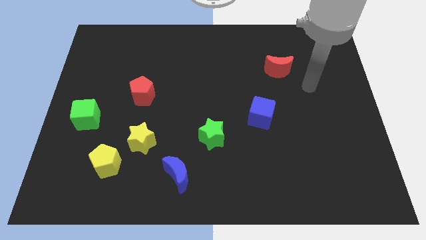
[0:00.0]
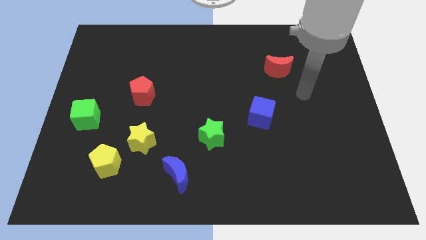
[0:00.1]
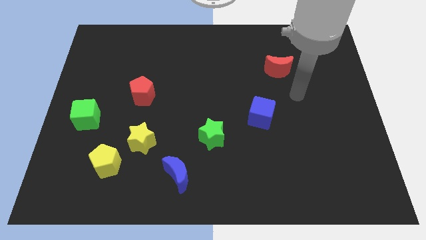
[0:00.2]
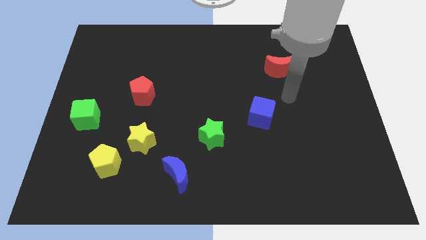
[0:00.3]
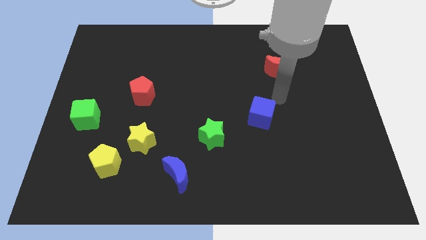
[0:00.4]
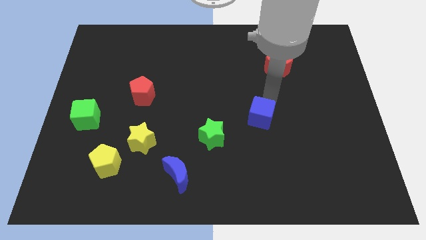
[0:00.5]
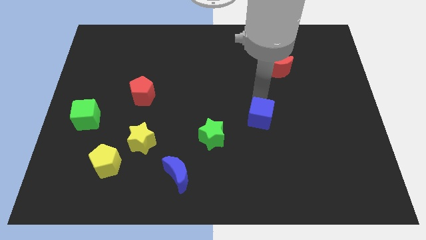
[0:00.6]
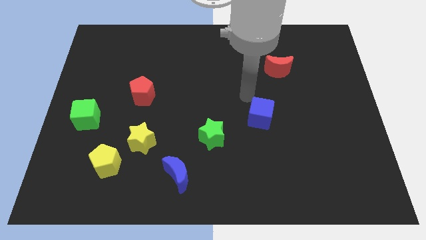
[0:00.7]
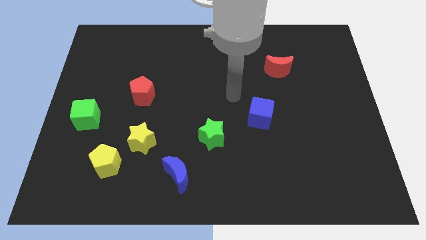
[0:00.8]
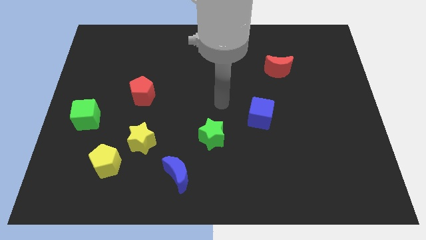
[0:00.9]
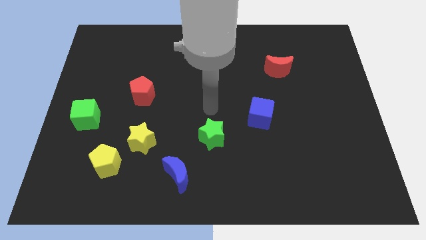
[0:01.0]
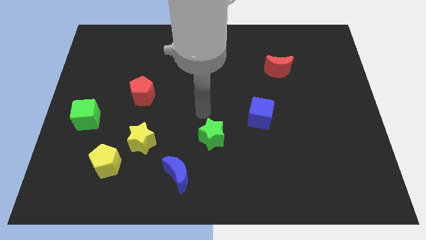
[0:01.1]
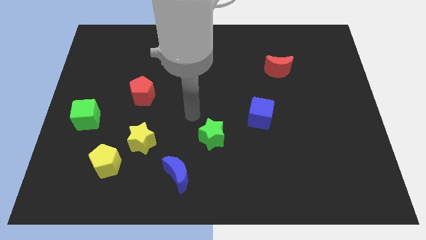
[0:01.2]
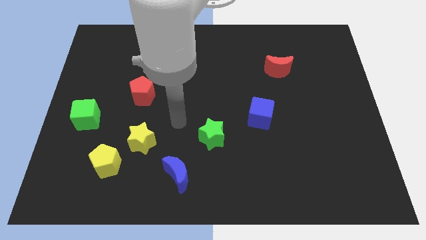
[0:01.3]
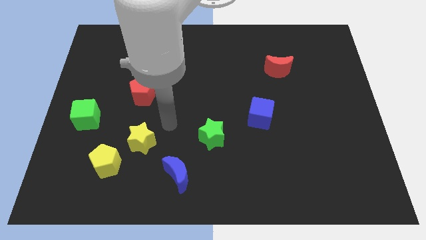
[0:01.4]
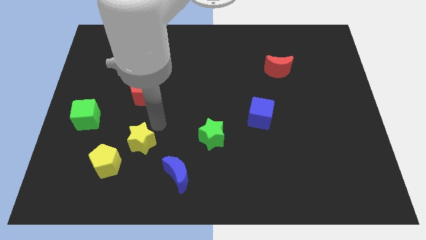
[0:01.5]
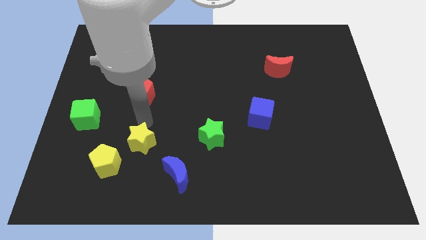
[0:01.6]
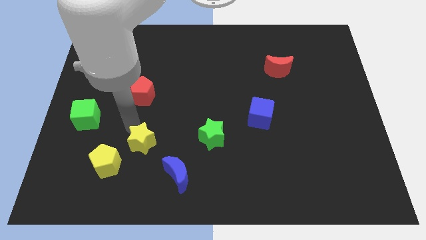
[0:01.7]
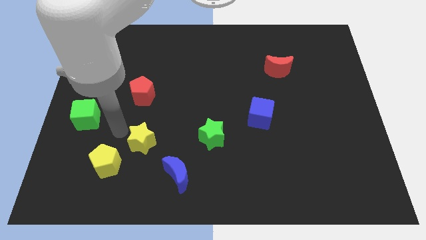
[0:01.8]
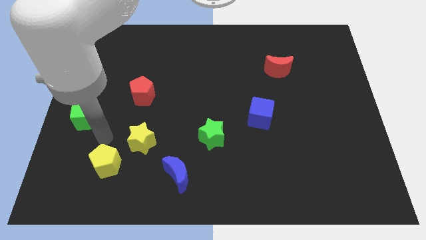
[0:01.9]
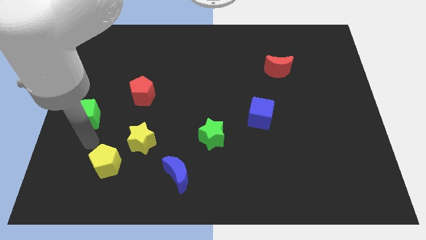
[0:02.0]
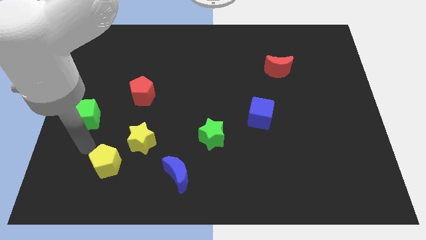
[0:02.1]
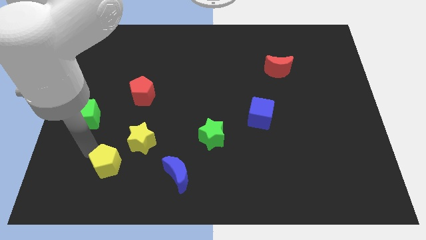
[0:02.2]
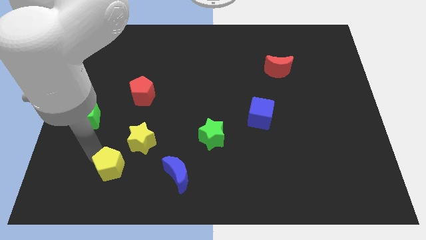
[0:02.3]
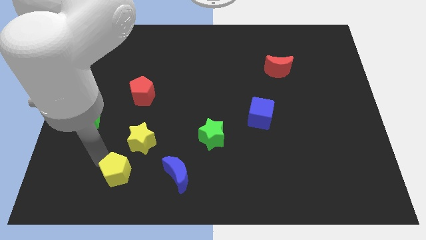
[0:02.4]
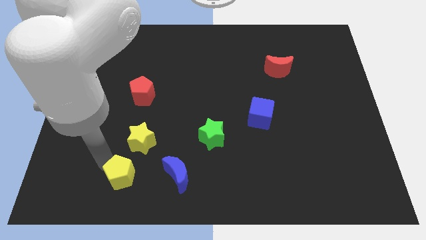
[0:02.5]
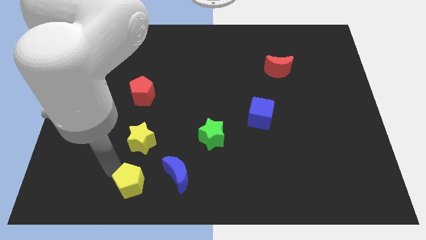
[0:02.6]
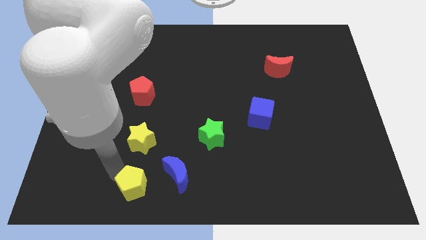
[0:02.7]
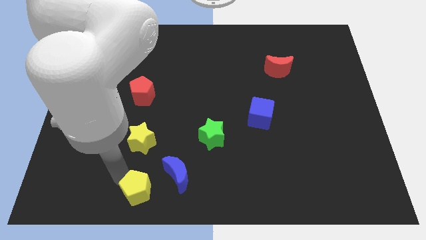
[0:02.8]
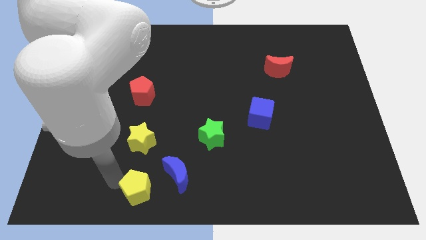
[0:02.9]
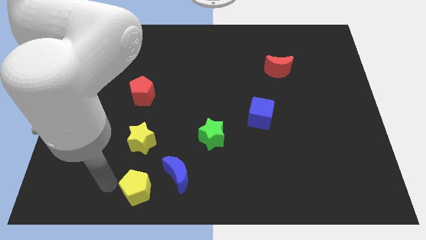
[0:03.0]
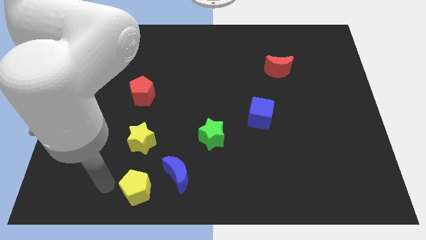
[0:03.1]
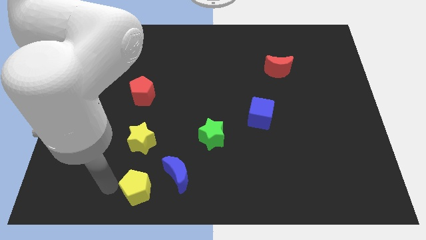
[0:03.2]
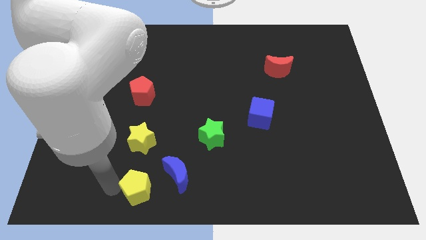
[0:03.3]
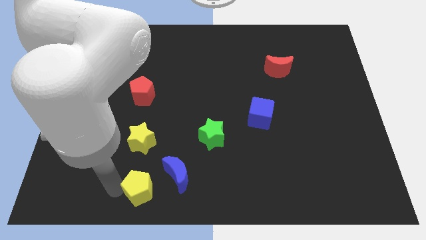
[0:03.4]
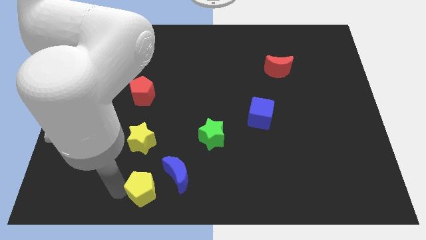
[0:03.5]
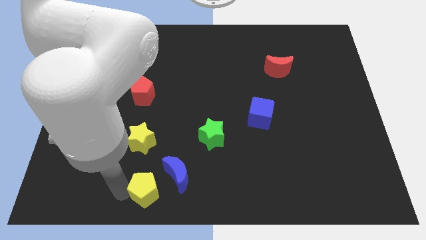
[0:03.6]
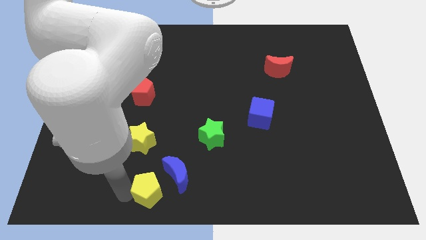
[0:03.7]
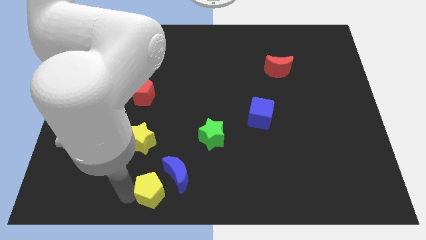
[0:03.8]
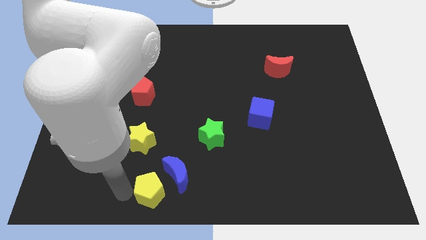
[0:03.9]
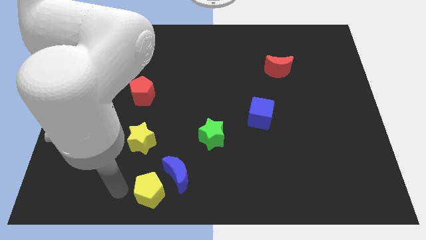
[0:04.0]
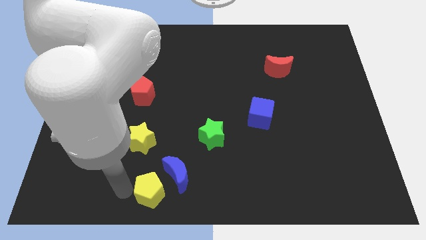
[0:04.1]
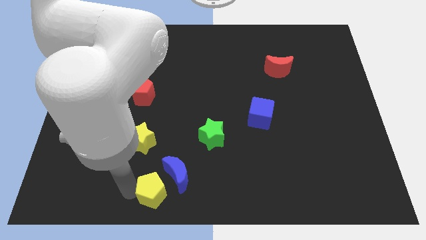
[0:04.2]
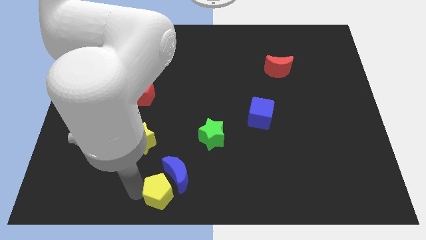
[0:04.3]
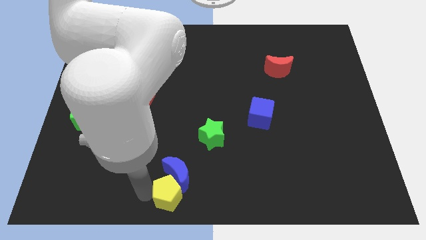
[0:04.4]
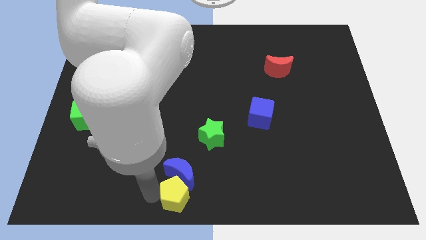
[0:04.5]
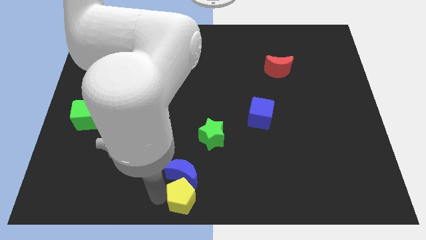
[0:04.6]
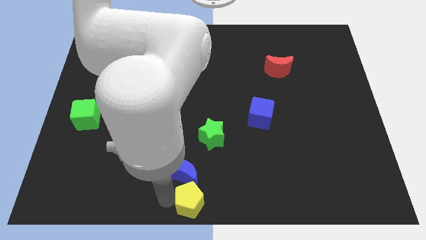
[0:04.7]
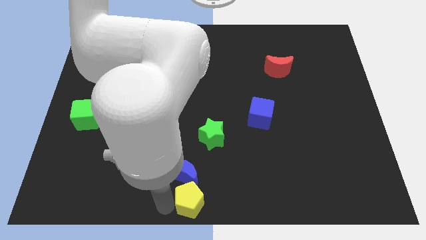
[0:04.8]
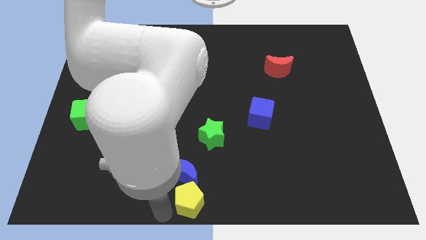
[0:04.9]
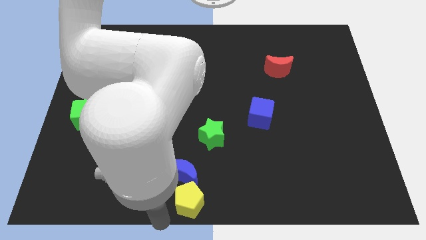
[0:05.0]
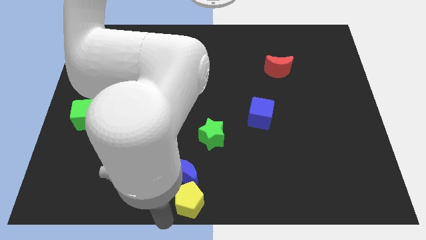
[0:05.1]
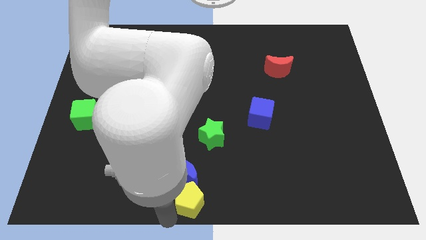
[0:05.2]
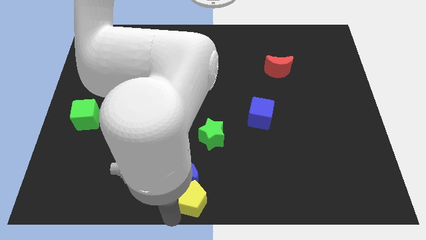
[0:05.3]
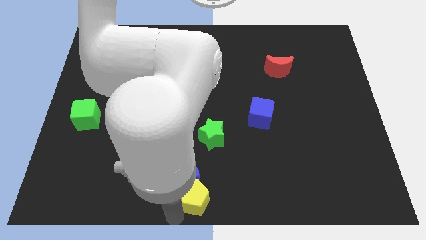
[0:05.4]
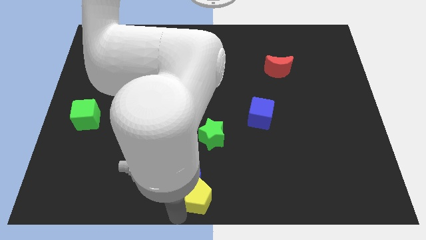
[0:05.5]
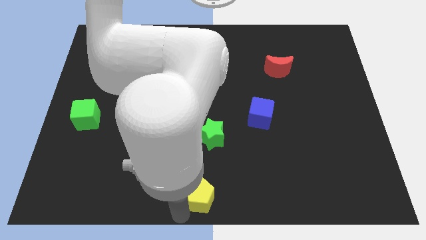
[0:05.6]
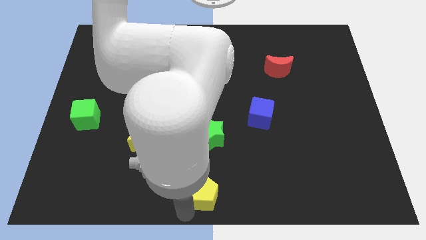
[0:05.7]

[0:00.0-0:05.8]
slide the yellow pentagon to the right side of the blue moon

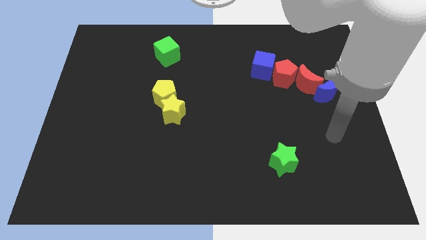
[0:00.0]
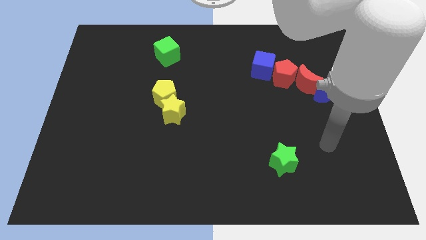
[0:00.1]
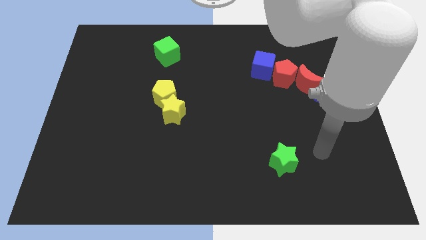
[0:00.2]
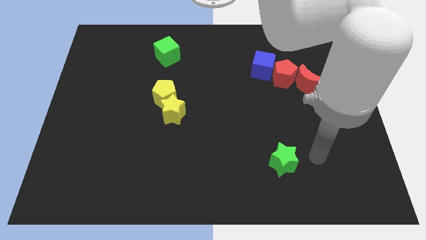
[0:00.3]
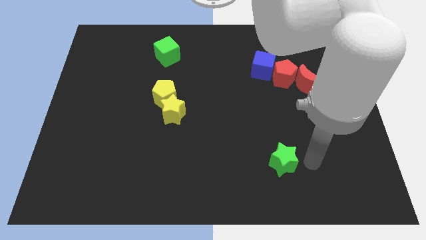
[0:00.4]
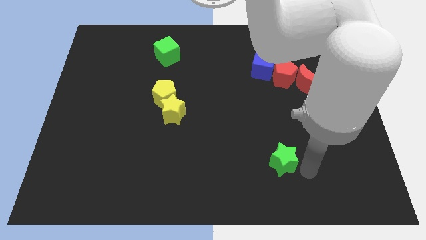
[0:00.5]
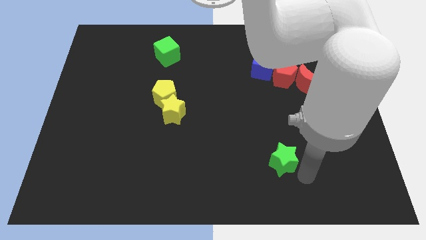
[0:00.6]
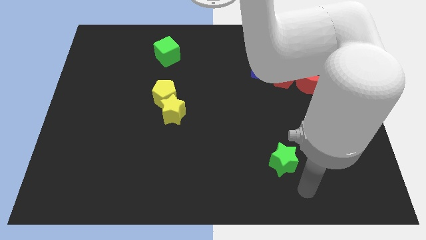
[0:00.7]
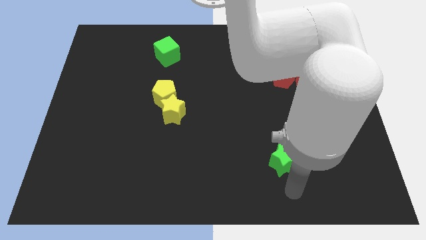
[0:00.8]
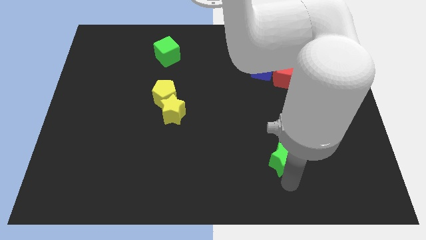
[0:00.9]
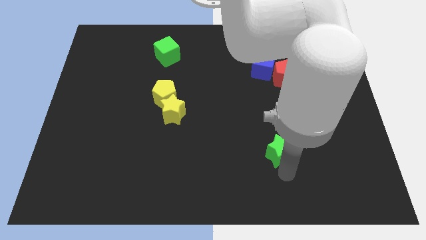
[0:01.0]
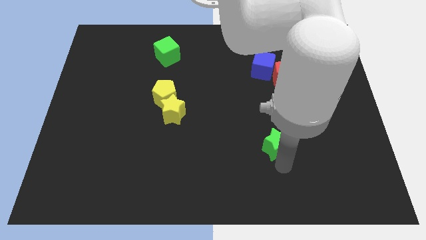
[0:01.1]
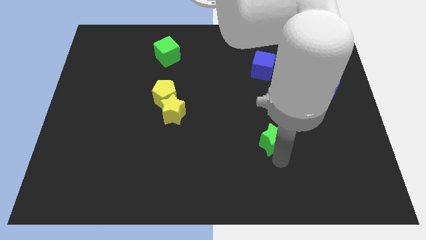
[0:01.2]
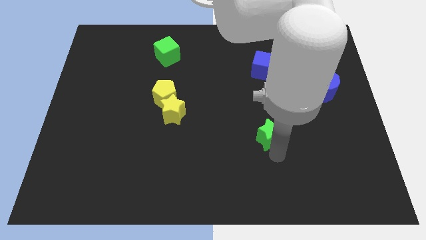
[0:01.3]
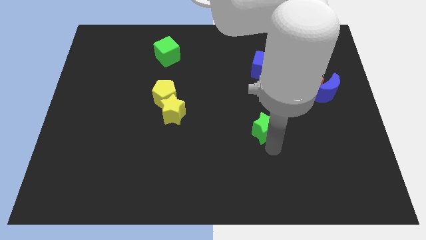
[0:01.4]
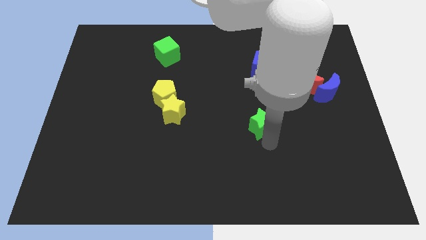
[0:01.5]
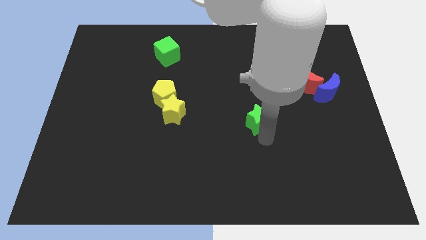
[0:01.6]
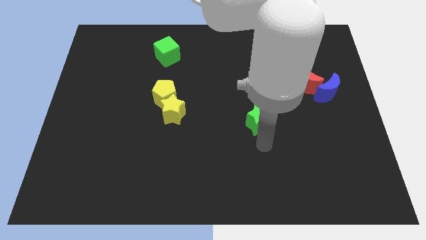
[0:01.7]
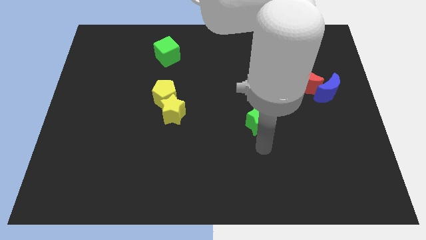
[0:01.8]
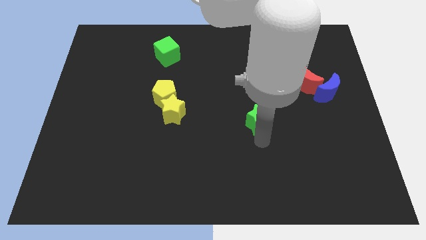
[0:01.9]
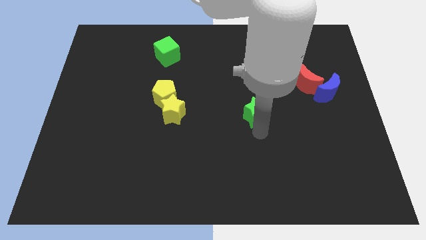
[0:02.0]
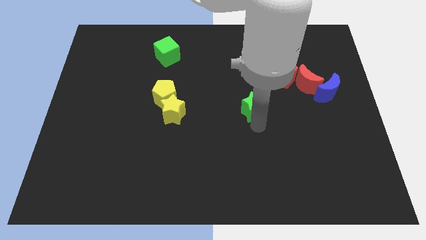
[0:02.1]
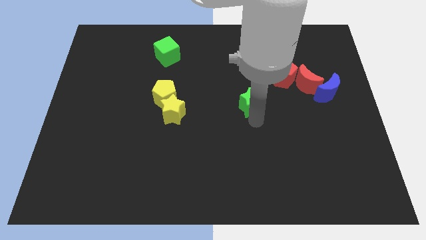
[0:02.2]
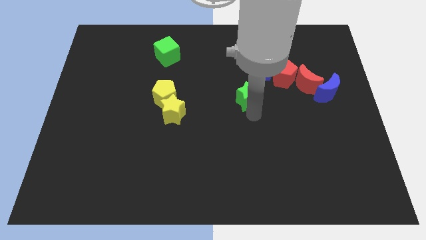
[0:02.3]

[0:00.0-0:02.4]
slide the green star to the bottom left of the blue cube
